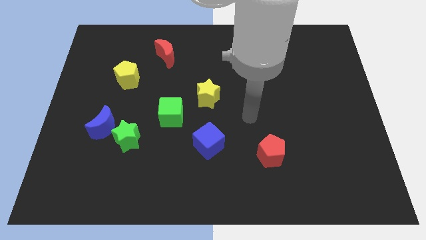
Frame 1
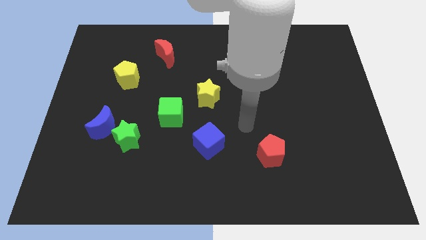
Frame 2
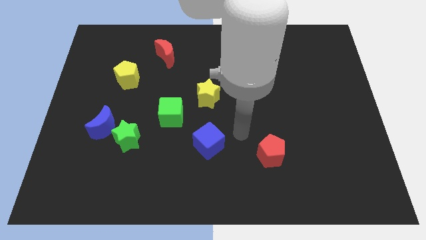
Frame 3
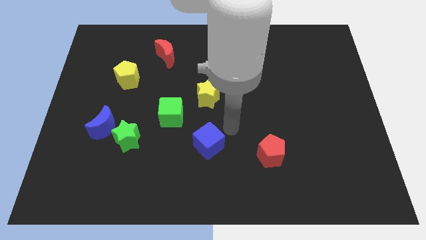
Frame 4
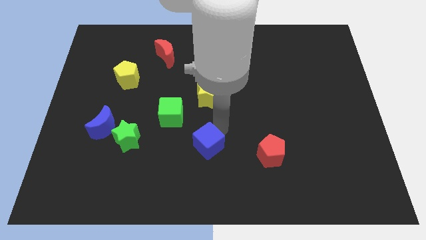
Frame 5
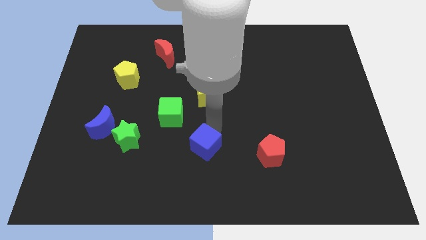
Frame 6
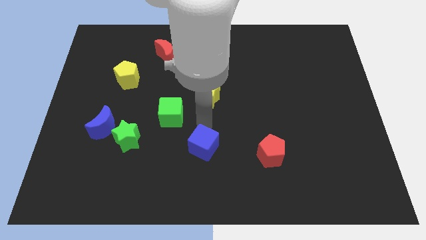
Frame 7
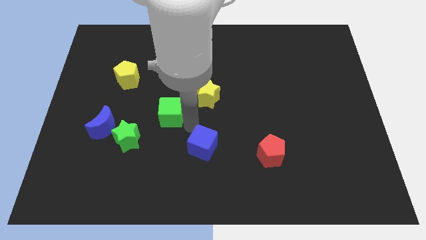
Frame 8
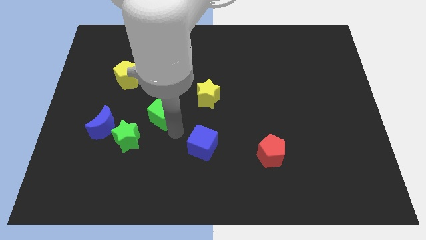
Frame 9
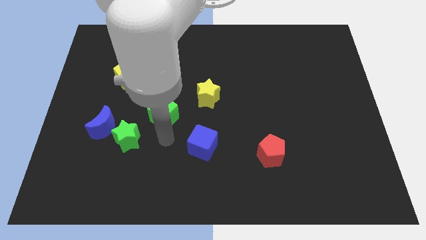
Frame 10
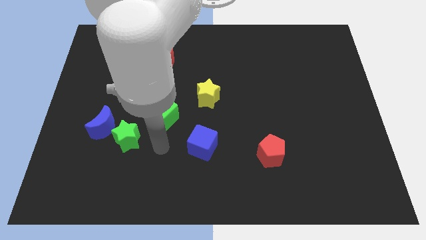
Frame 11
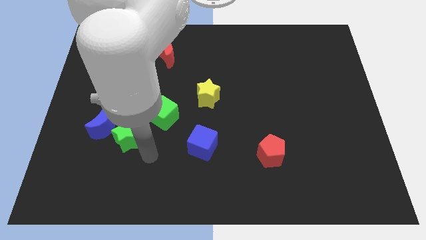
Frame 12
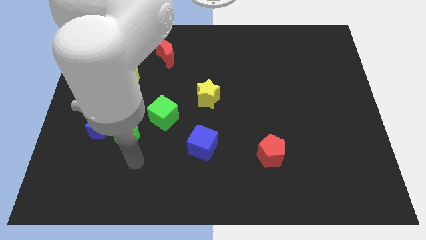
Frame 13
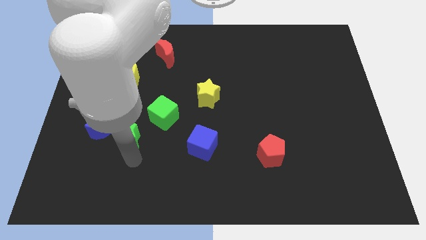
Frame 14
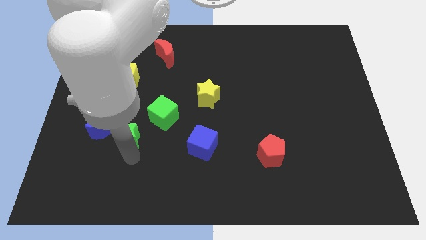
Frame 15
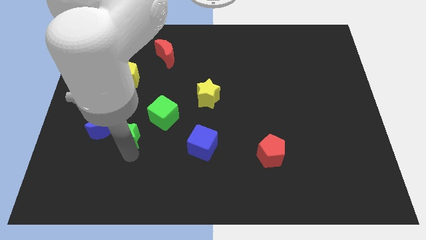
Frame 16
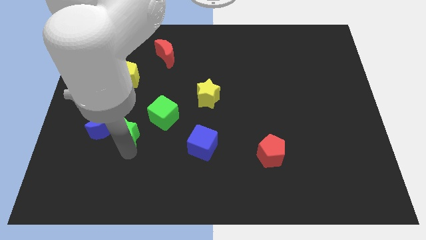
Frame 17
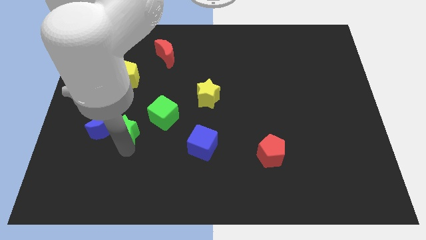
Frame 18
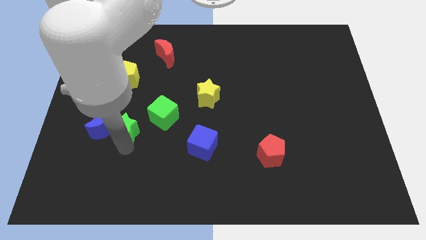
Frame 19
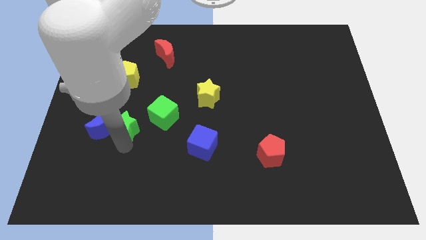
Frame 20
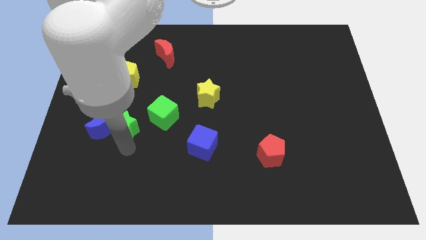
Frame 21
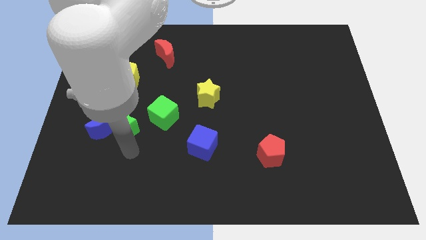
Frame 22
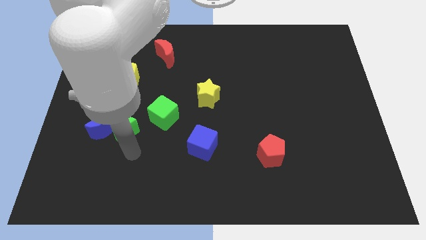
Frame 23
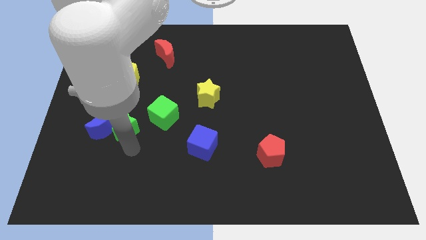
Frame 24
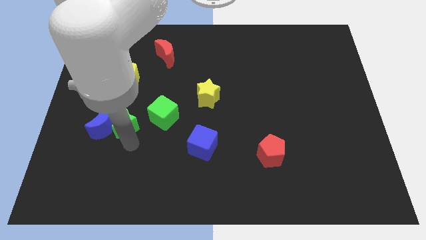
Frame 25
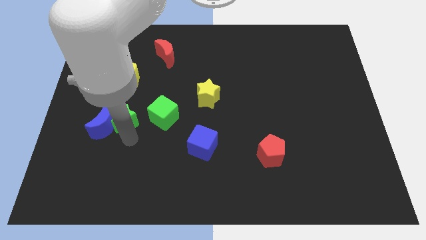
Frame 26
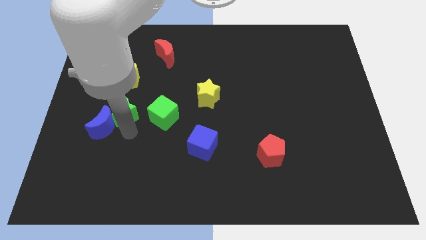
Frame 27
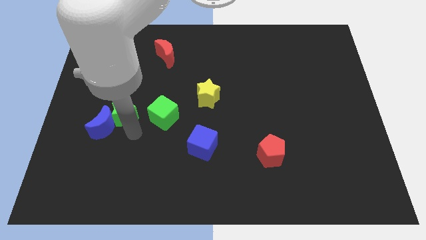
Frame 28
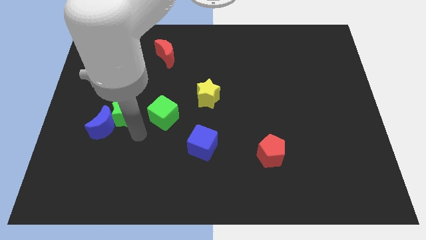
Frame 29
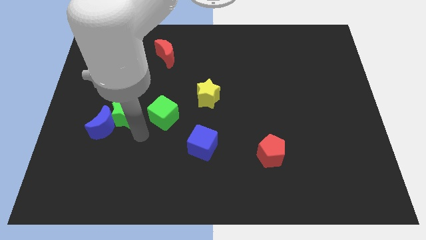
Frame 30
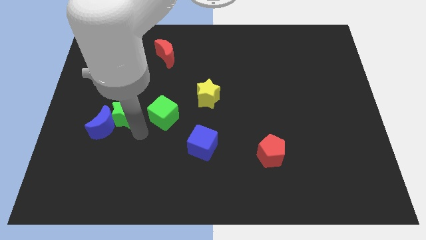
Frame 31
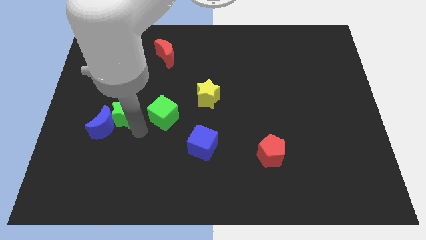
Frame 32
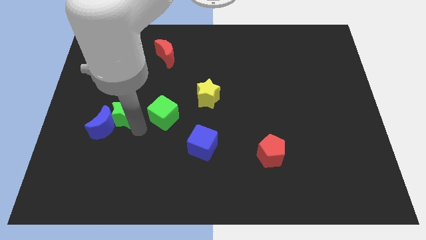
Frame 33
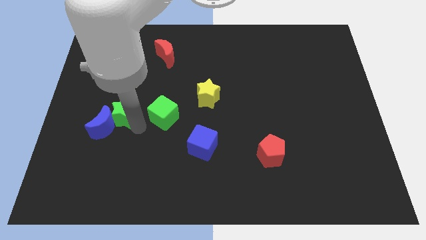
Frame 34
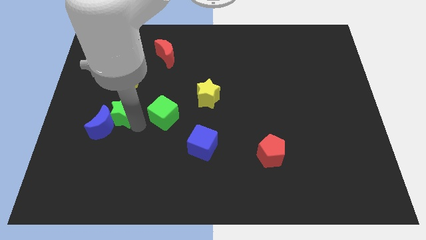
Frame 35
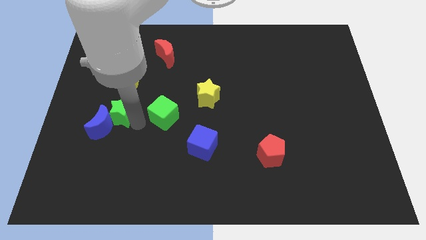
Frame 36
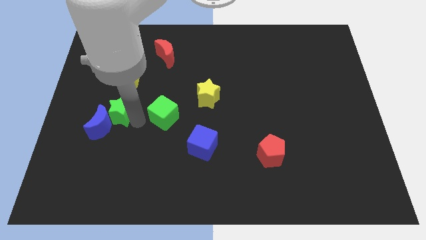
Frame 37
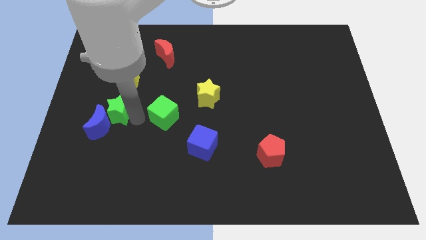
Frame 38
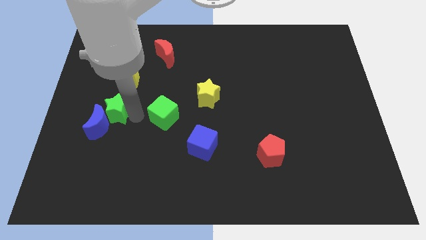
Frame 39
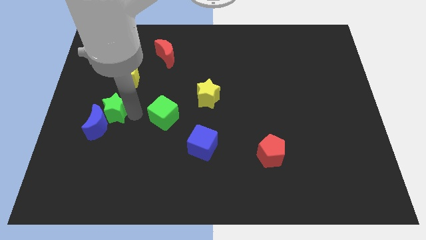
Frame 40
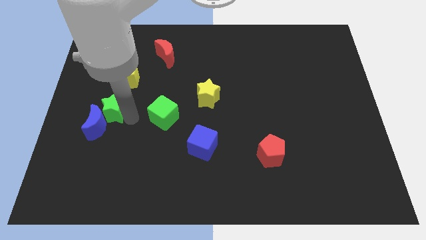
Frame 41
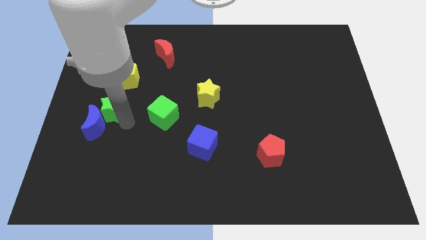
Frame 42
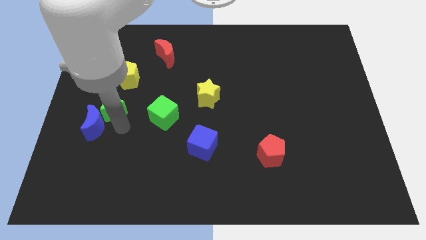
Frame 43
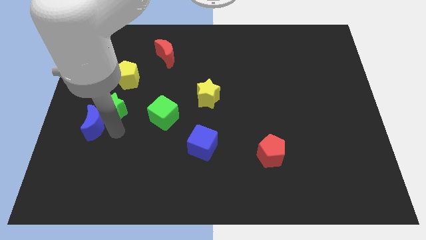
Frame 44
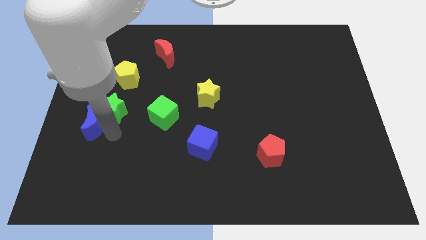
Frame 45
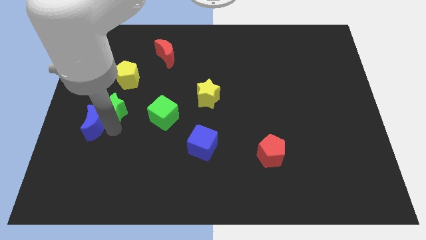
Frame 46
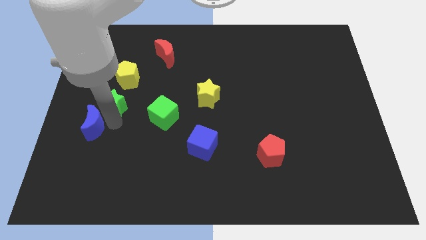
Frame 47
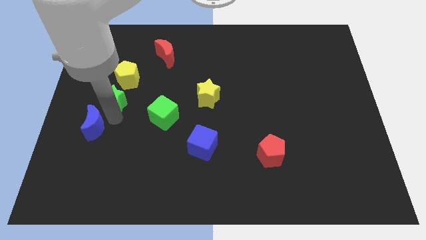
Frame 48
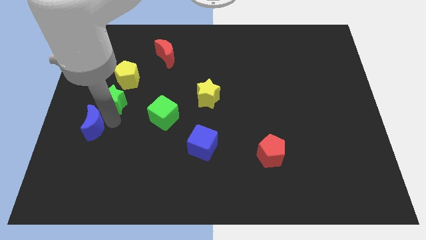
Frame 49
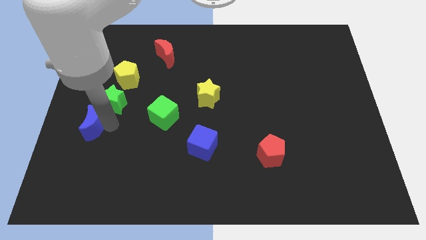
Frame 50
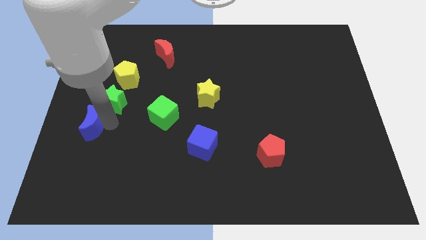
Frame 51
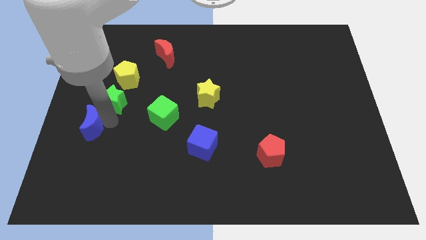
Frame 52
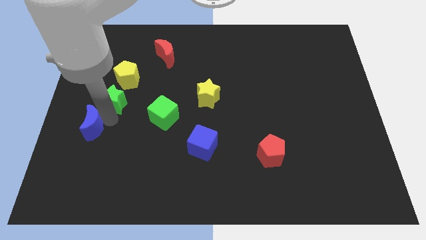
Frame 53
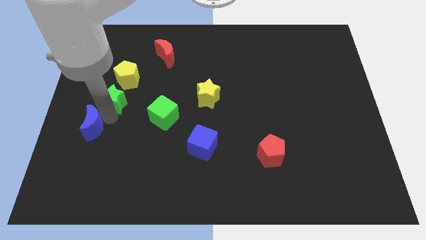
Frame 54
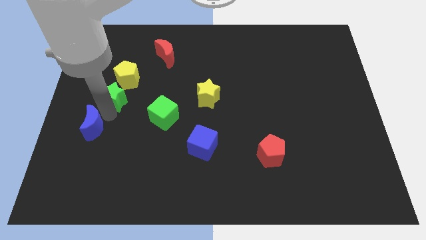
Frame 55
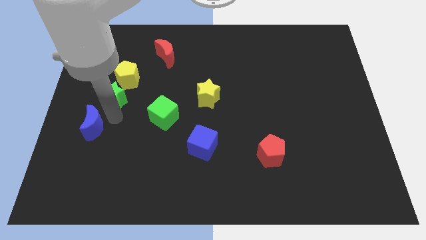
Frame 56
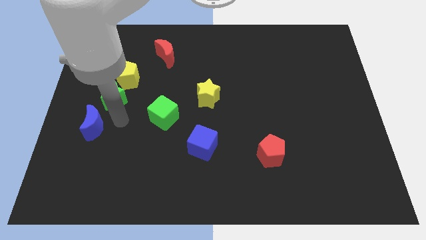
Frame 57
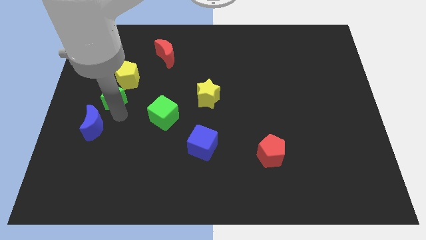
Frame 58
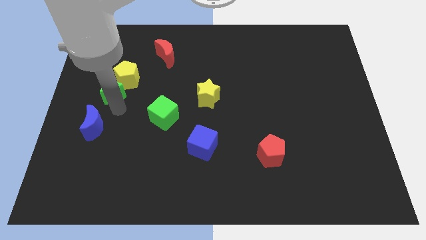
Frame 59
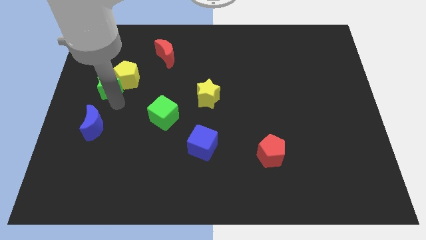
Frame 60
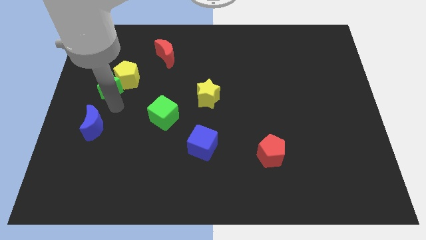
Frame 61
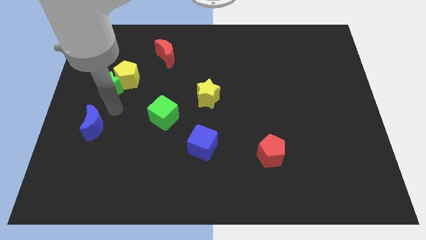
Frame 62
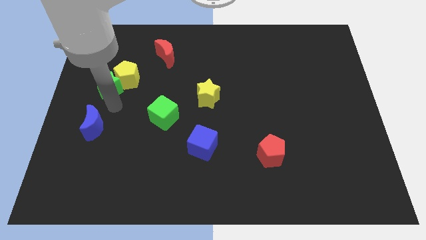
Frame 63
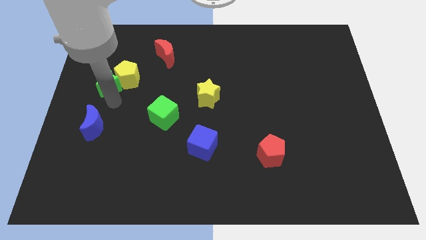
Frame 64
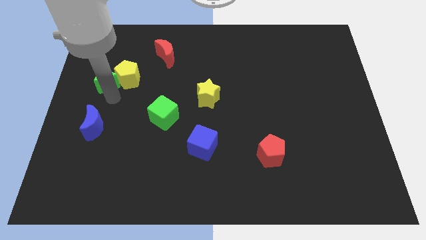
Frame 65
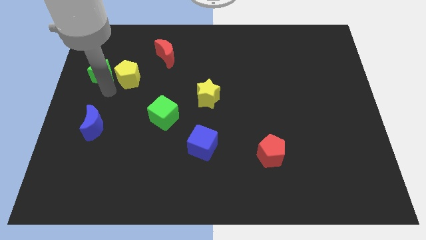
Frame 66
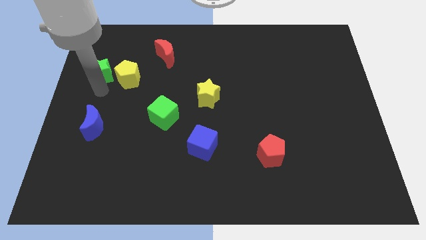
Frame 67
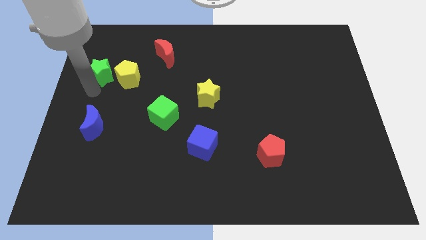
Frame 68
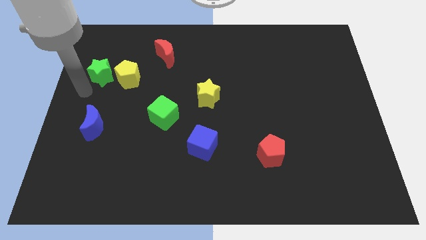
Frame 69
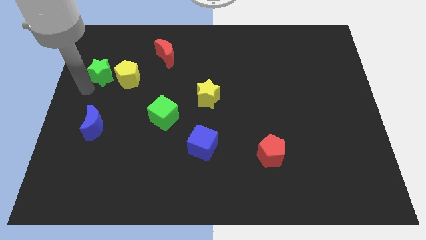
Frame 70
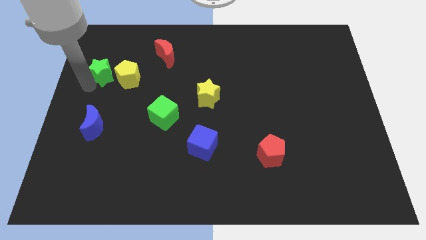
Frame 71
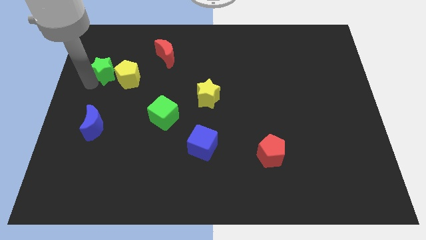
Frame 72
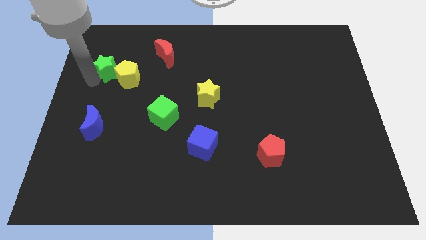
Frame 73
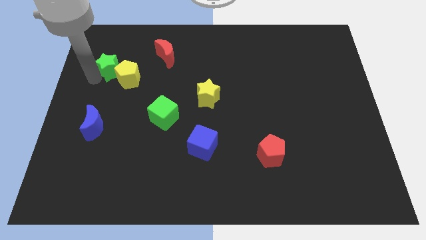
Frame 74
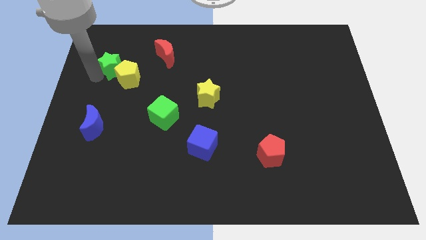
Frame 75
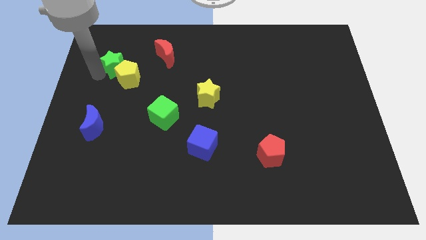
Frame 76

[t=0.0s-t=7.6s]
push the green star to the left of the red moon
